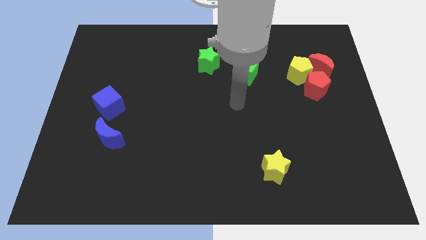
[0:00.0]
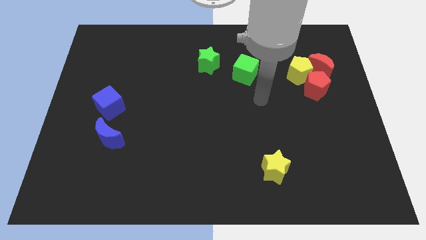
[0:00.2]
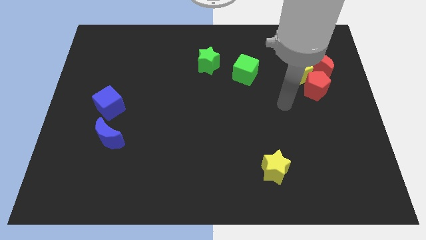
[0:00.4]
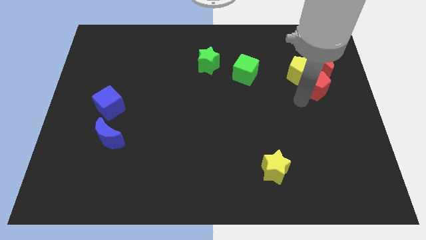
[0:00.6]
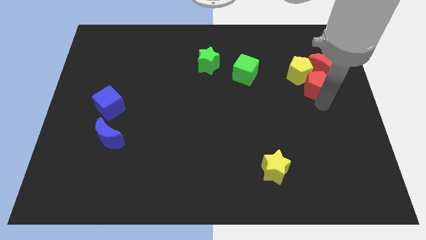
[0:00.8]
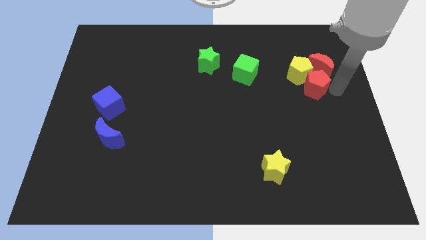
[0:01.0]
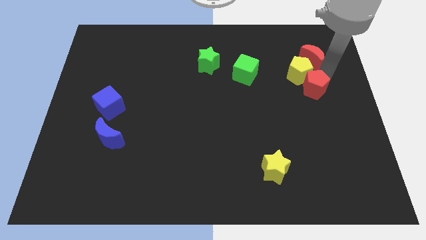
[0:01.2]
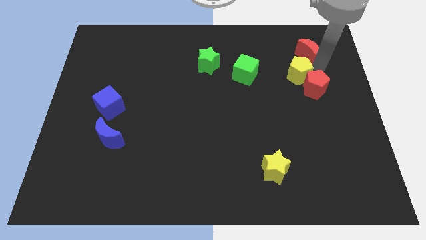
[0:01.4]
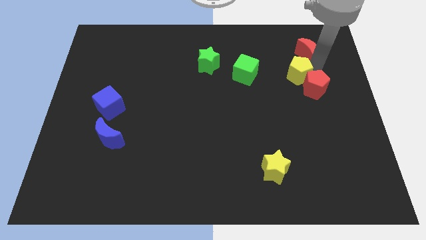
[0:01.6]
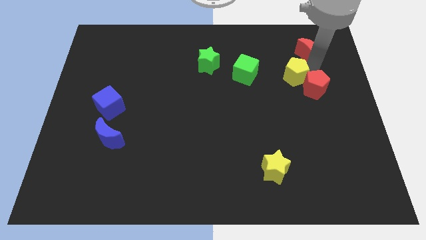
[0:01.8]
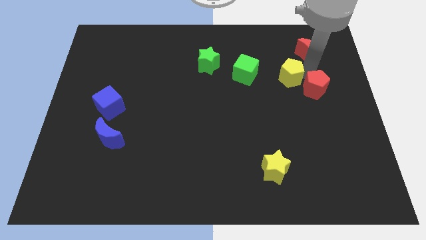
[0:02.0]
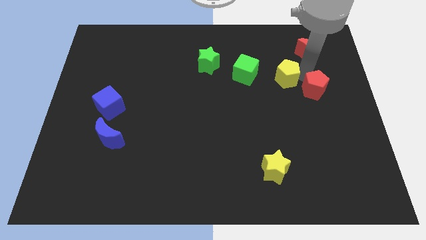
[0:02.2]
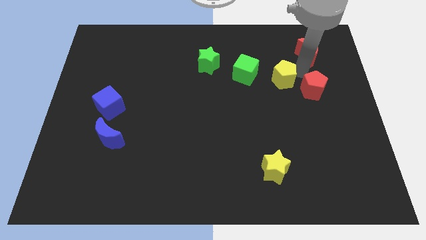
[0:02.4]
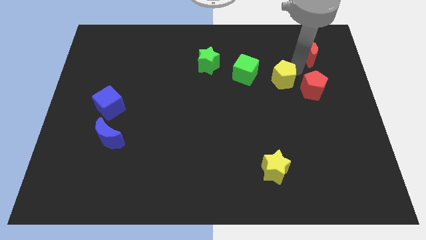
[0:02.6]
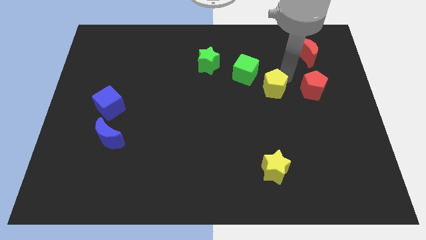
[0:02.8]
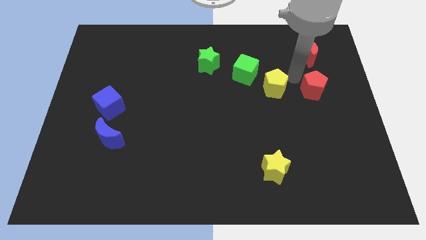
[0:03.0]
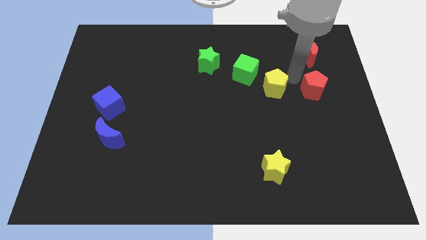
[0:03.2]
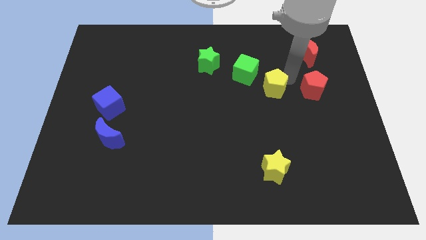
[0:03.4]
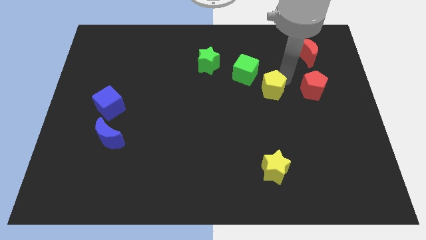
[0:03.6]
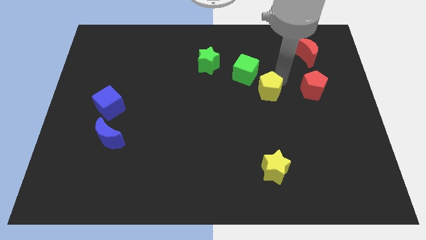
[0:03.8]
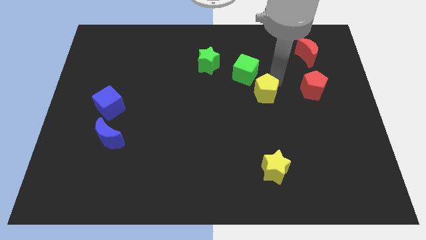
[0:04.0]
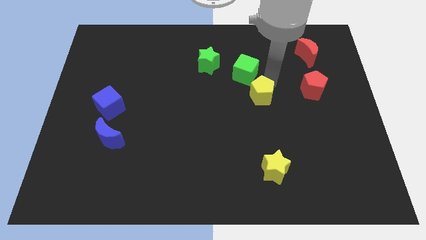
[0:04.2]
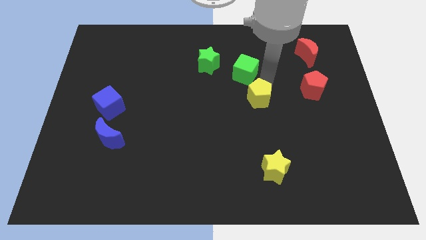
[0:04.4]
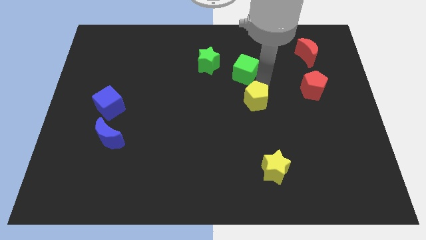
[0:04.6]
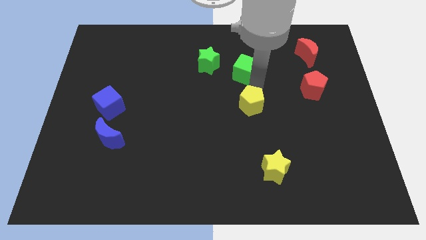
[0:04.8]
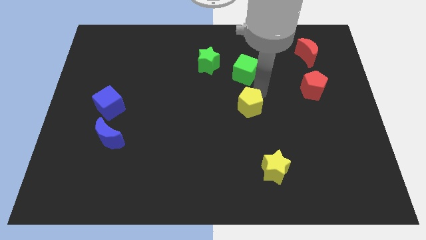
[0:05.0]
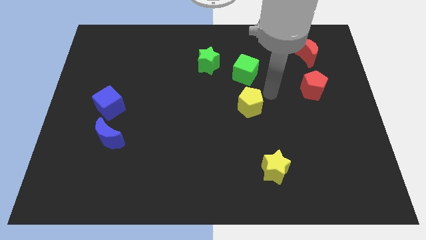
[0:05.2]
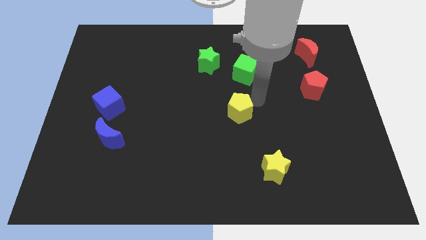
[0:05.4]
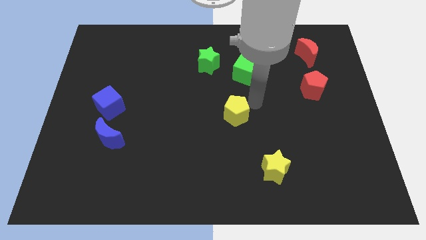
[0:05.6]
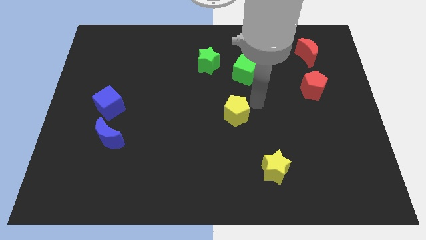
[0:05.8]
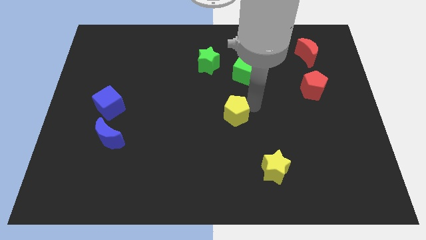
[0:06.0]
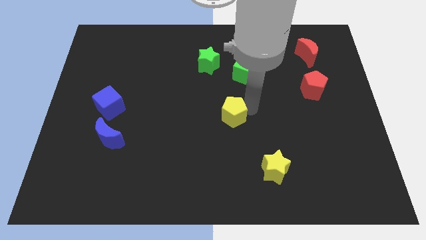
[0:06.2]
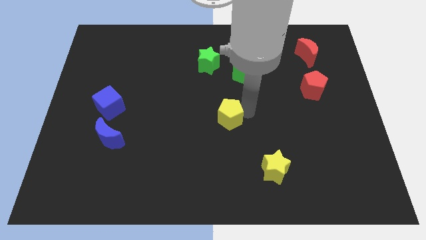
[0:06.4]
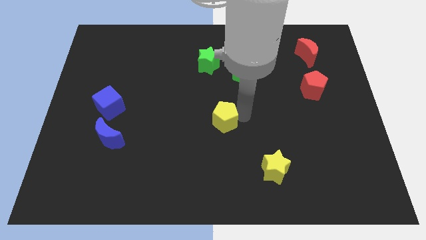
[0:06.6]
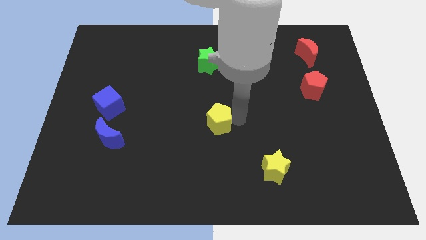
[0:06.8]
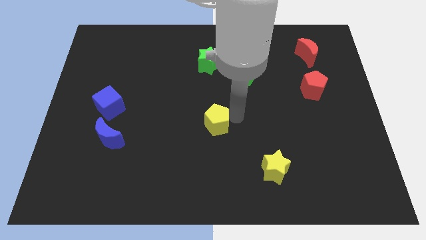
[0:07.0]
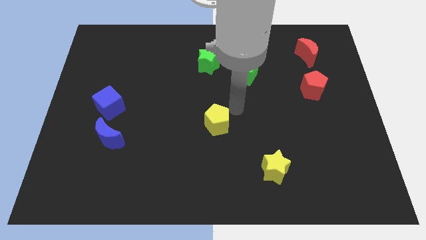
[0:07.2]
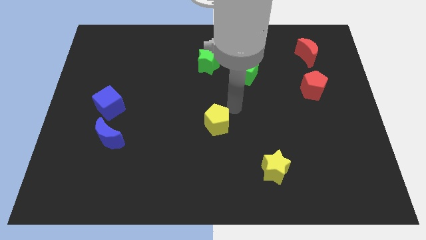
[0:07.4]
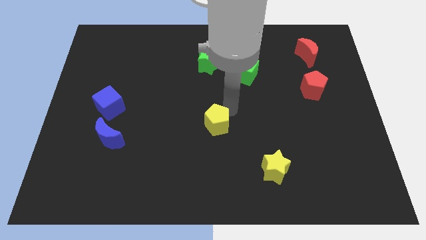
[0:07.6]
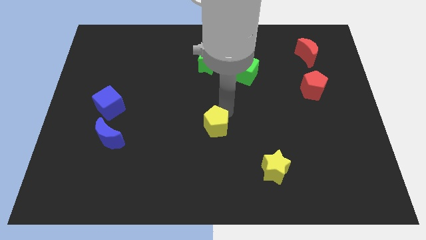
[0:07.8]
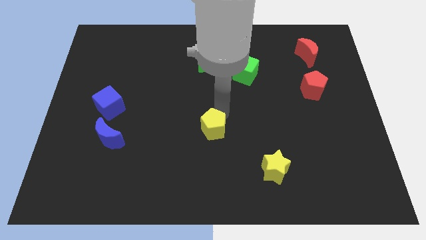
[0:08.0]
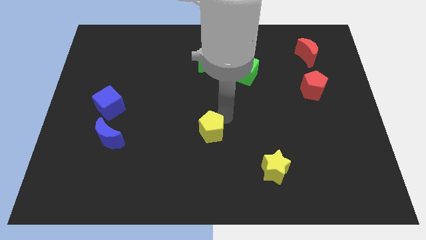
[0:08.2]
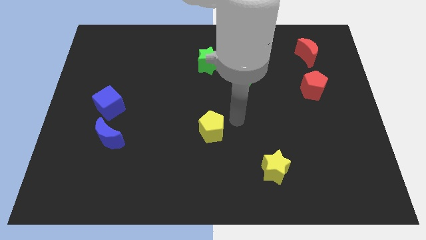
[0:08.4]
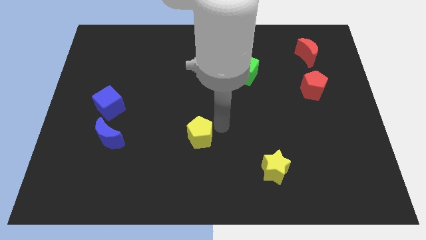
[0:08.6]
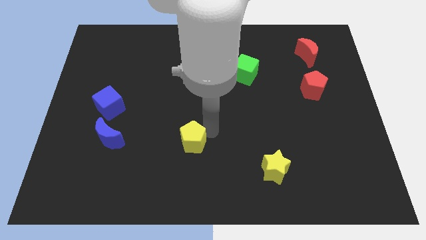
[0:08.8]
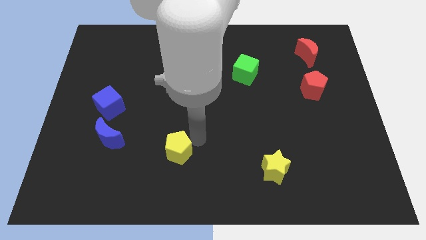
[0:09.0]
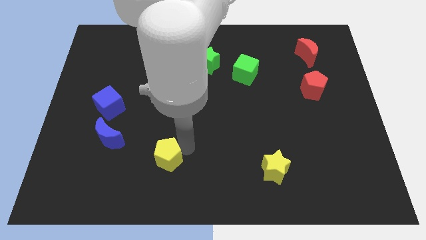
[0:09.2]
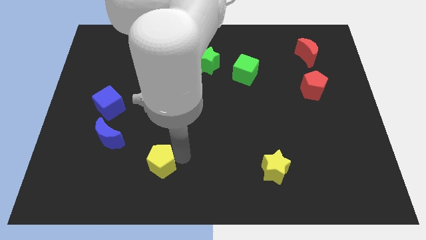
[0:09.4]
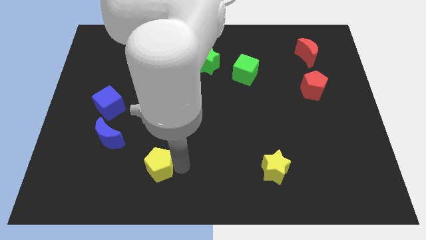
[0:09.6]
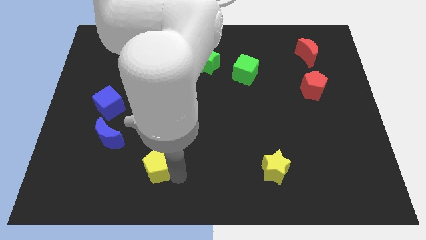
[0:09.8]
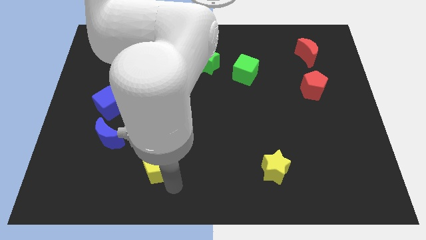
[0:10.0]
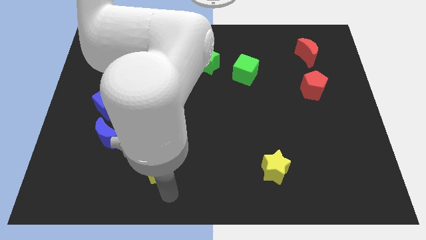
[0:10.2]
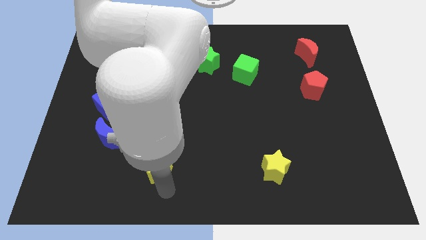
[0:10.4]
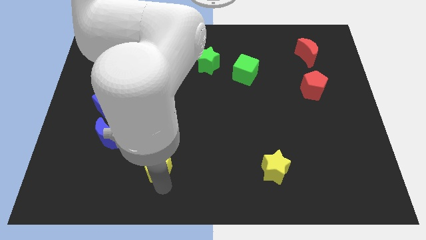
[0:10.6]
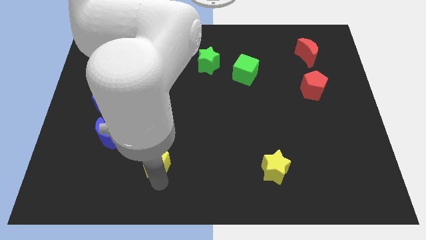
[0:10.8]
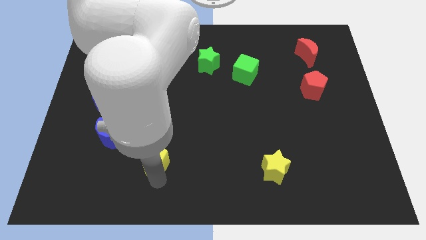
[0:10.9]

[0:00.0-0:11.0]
put the yellow pentagon diagonally down and to the right of the blue moon

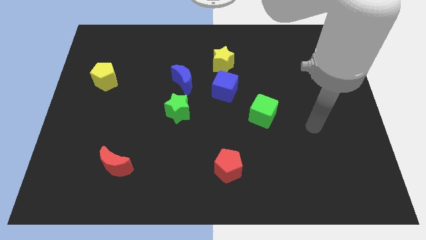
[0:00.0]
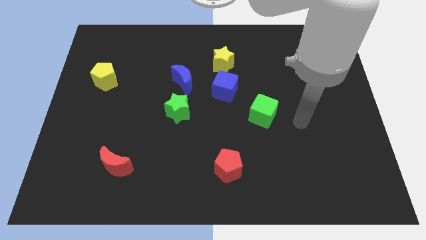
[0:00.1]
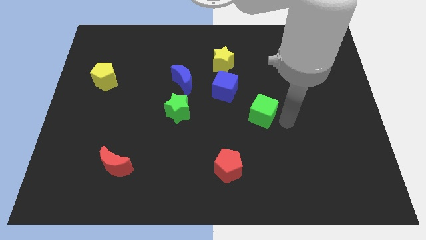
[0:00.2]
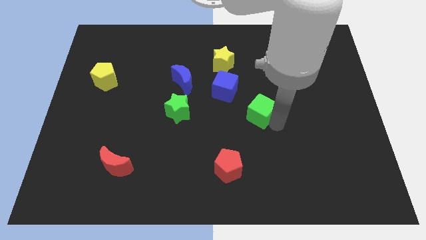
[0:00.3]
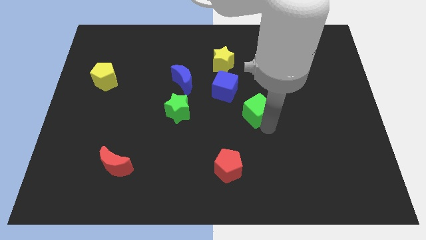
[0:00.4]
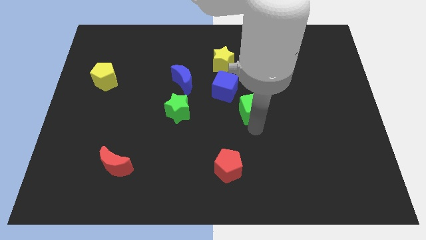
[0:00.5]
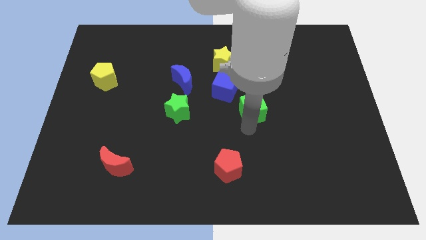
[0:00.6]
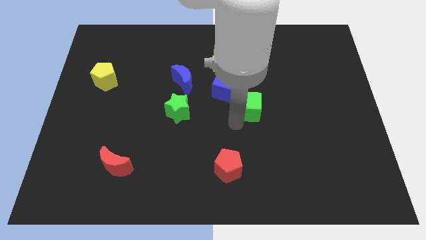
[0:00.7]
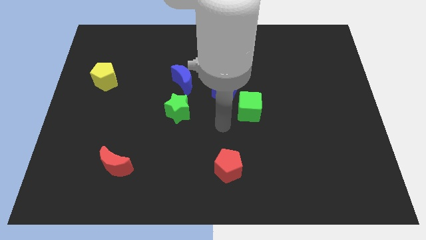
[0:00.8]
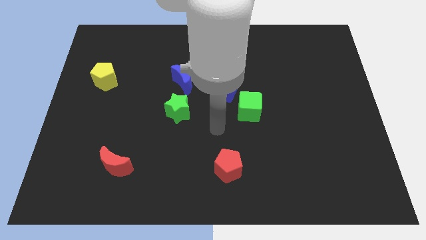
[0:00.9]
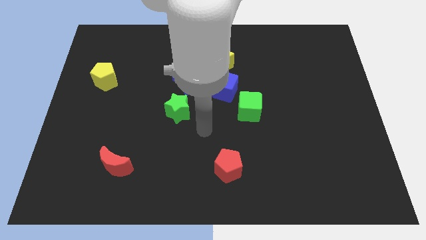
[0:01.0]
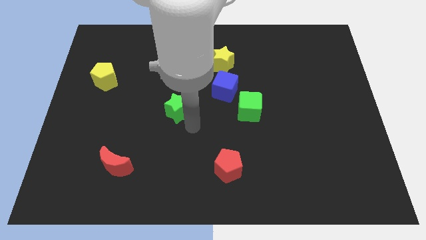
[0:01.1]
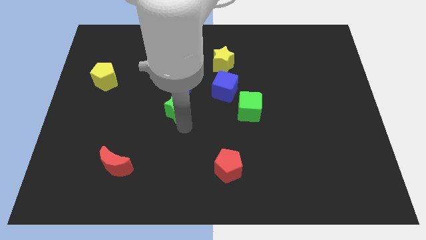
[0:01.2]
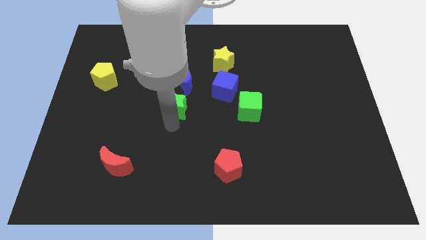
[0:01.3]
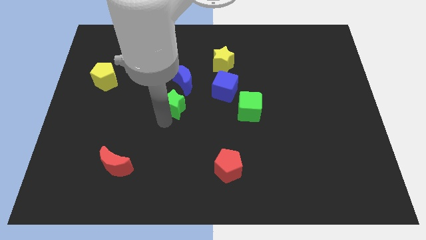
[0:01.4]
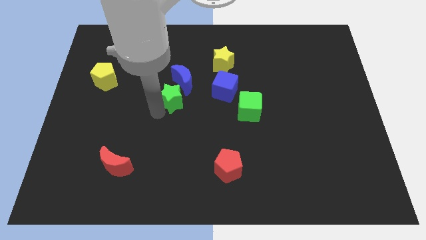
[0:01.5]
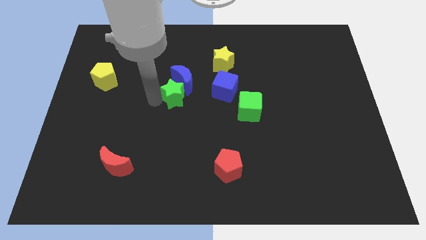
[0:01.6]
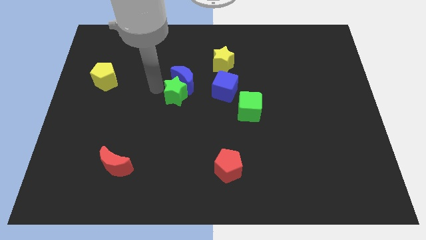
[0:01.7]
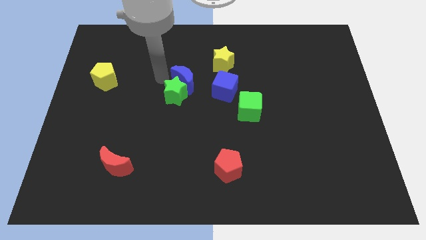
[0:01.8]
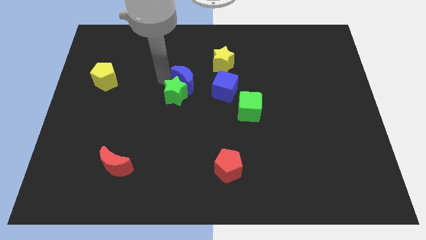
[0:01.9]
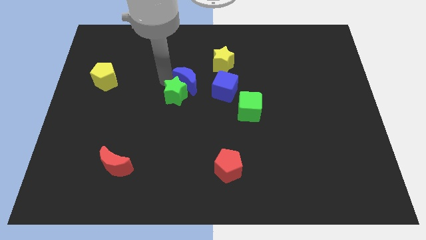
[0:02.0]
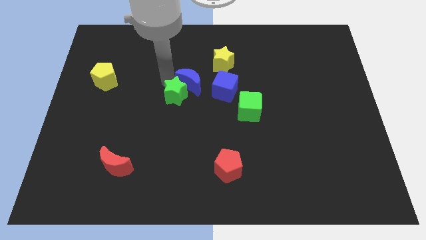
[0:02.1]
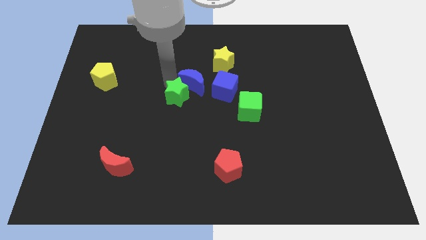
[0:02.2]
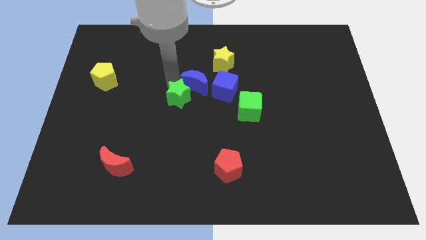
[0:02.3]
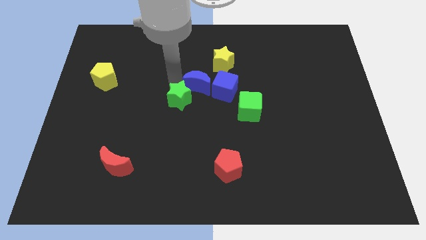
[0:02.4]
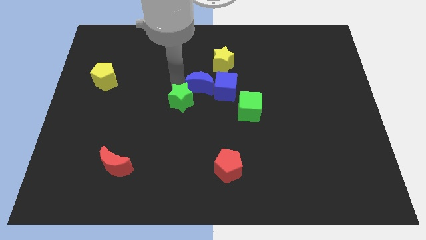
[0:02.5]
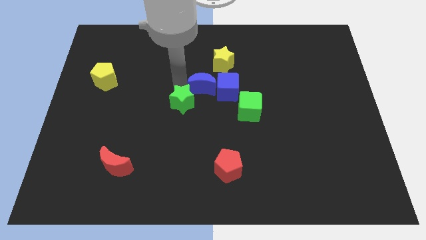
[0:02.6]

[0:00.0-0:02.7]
put the green star just left of the green cube
